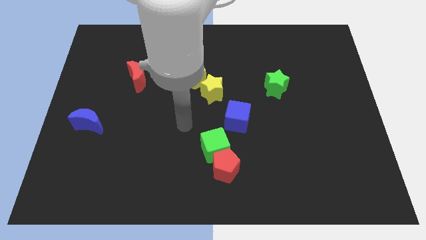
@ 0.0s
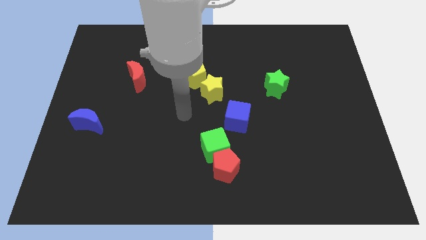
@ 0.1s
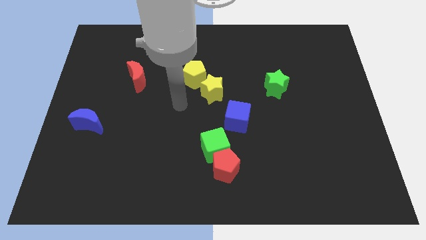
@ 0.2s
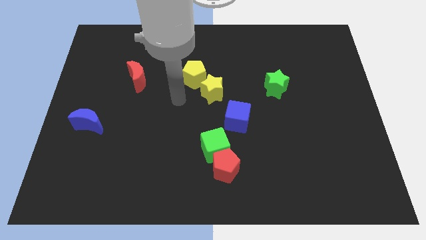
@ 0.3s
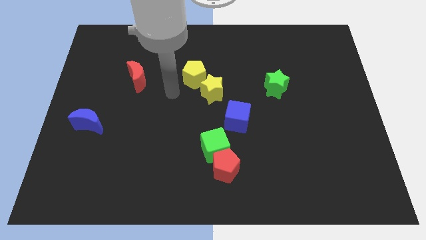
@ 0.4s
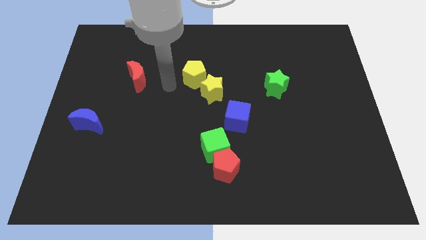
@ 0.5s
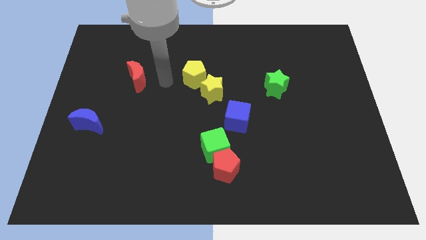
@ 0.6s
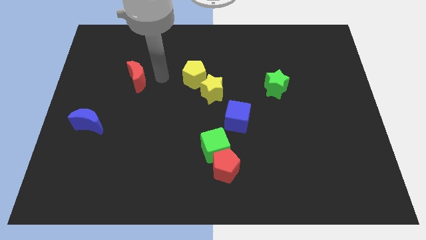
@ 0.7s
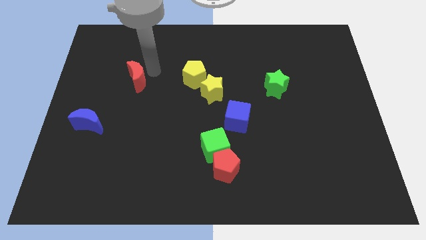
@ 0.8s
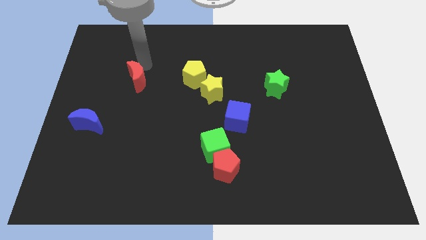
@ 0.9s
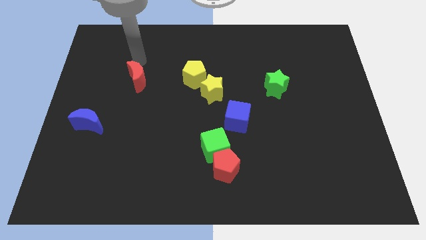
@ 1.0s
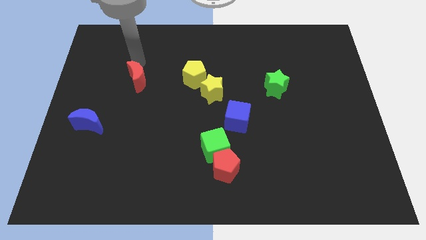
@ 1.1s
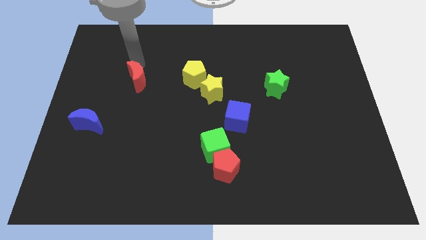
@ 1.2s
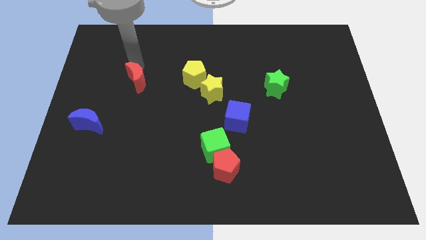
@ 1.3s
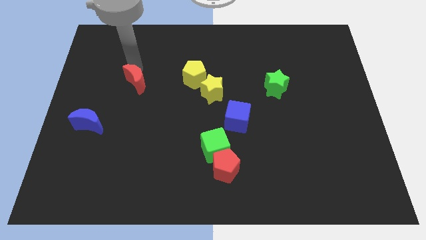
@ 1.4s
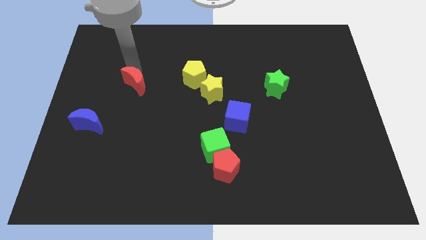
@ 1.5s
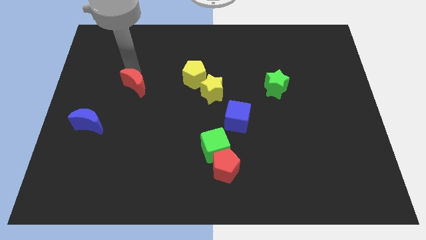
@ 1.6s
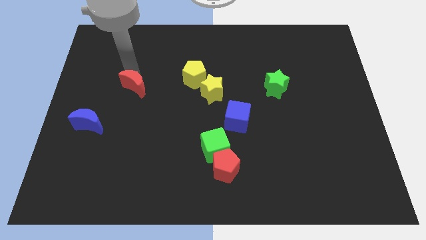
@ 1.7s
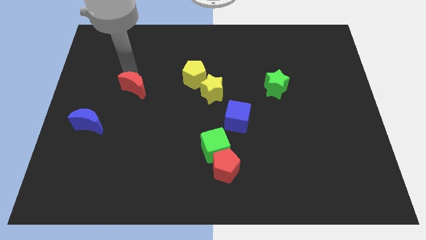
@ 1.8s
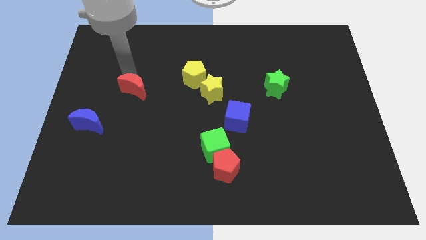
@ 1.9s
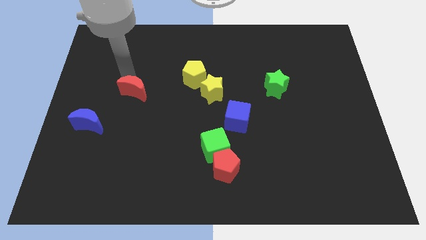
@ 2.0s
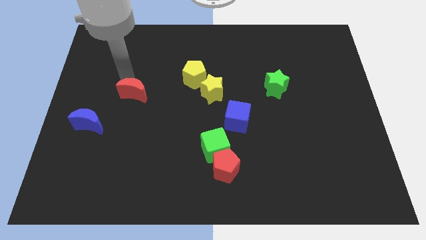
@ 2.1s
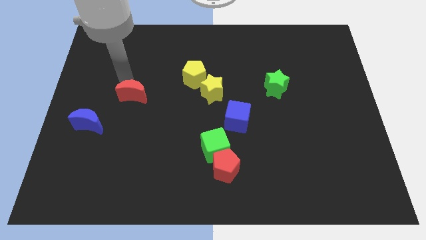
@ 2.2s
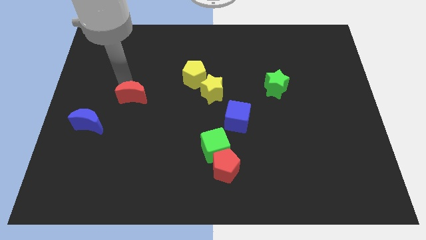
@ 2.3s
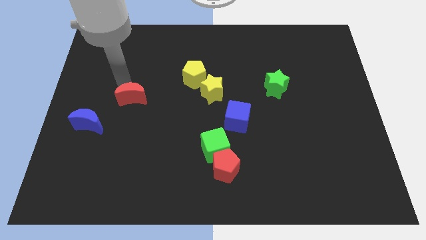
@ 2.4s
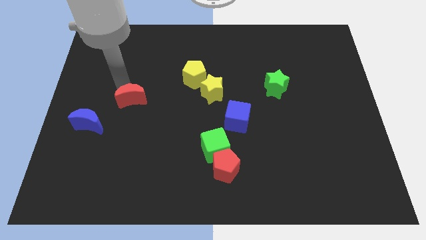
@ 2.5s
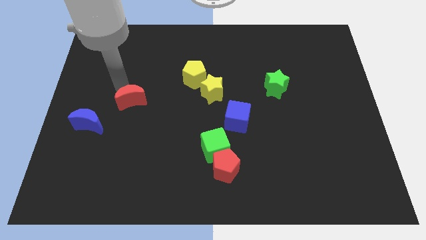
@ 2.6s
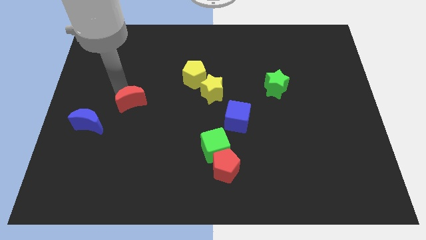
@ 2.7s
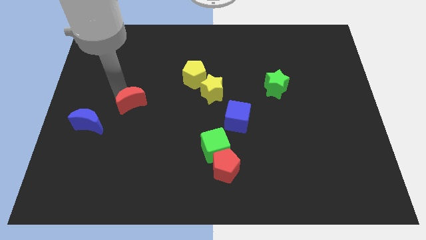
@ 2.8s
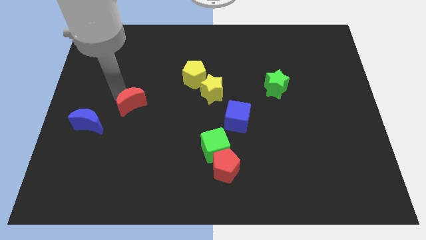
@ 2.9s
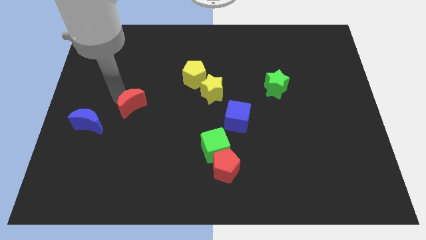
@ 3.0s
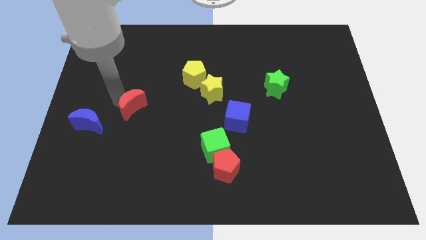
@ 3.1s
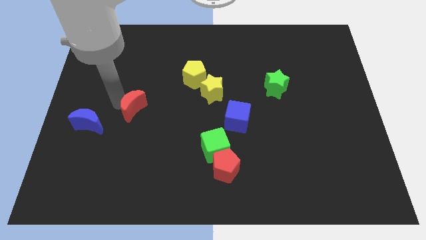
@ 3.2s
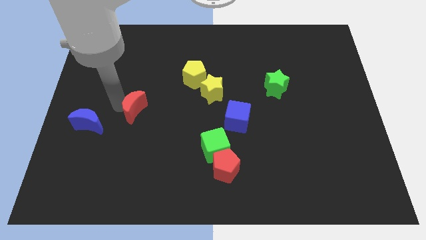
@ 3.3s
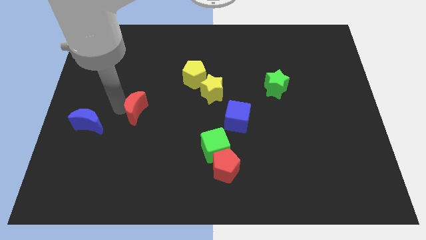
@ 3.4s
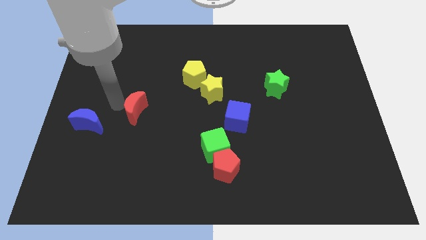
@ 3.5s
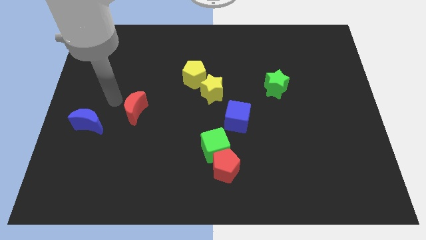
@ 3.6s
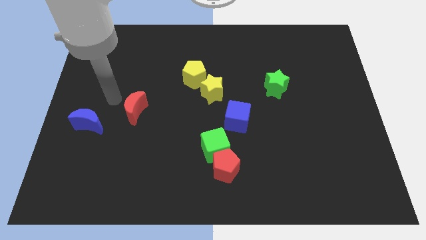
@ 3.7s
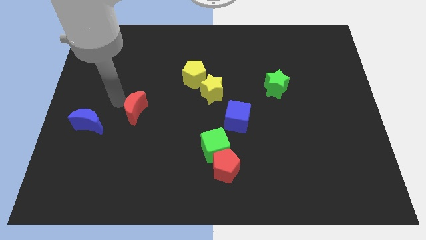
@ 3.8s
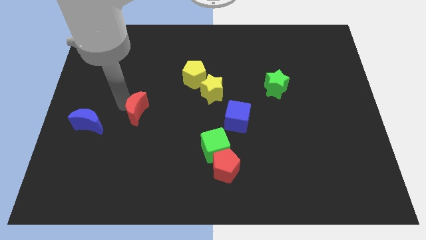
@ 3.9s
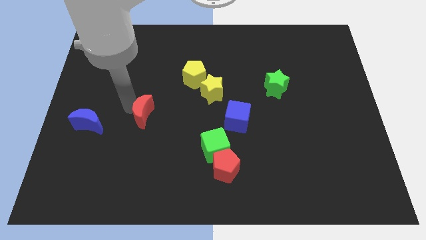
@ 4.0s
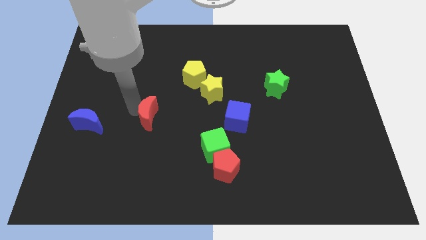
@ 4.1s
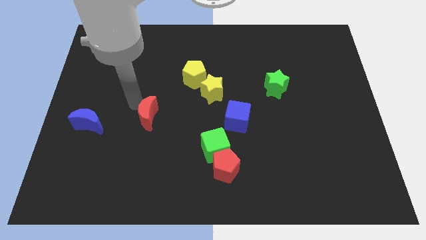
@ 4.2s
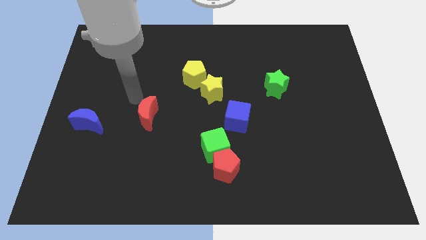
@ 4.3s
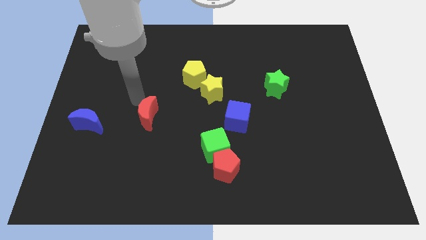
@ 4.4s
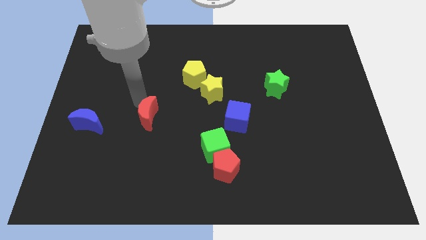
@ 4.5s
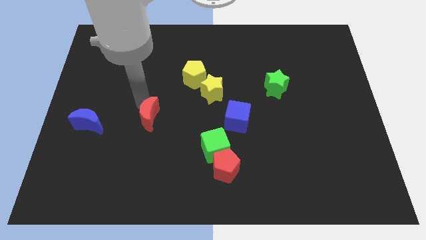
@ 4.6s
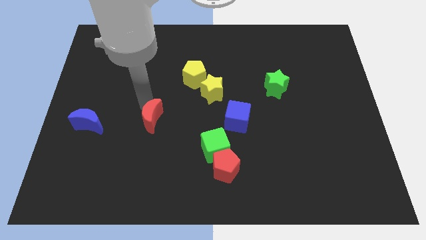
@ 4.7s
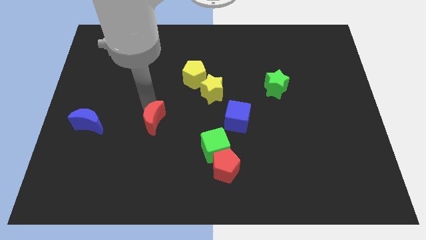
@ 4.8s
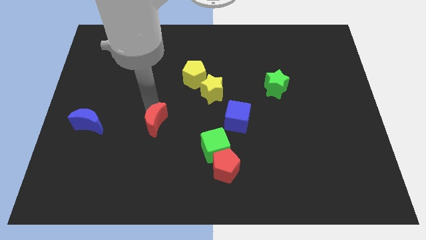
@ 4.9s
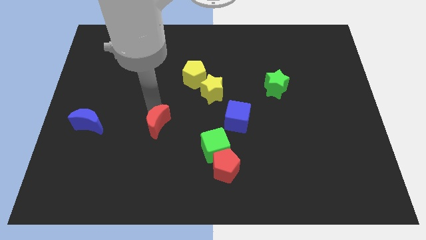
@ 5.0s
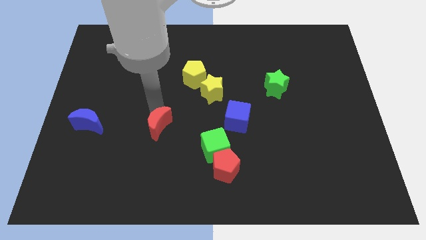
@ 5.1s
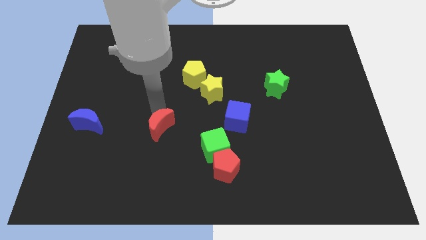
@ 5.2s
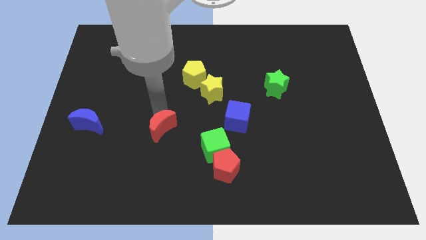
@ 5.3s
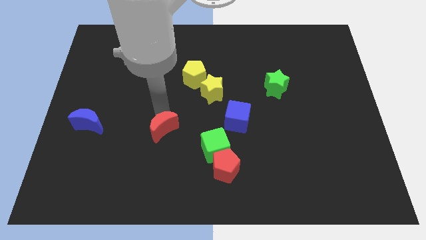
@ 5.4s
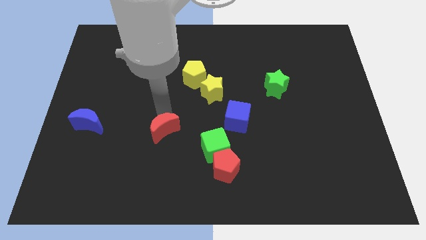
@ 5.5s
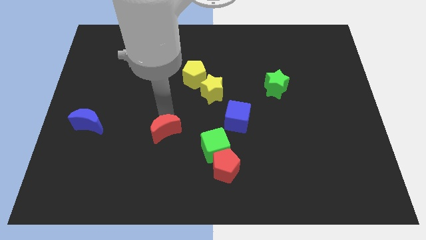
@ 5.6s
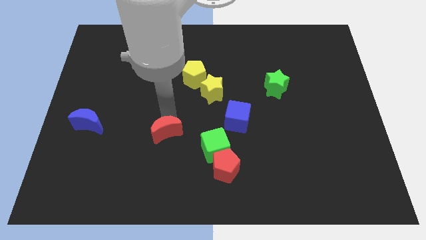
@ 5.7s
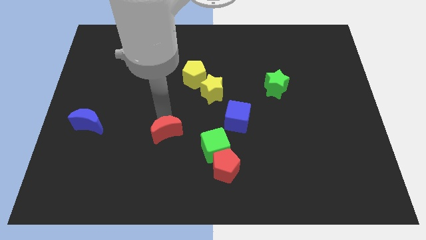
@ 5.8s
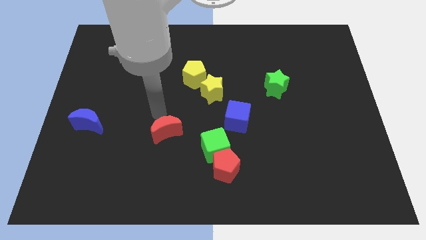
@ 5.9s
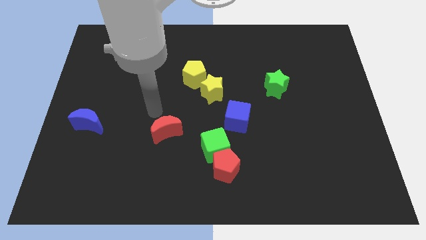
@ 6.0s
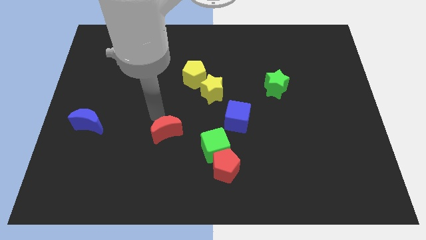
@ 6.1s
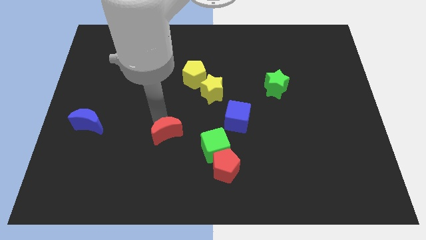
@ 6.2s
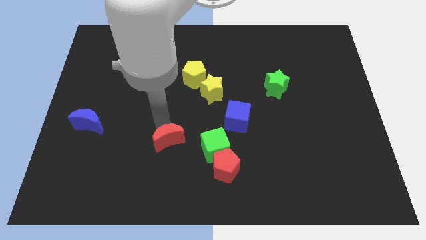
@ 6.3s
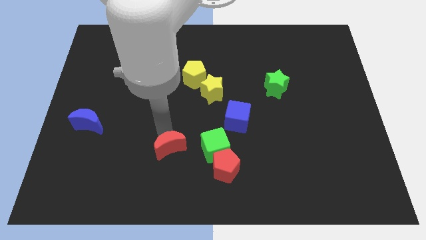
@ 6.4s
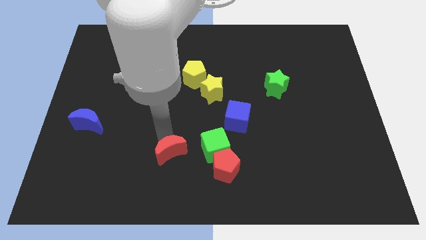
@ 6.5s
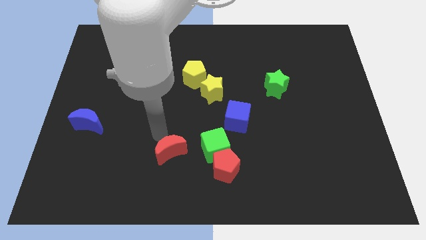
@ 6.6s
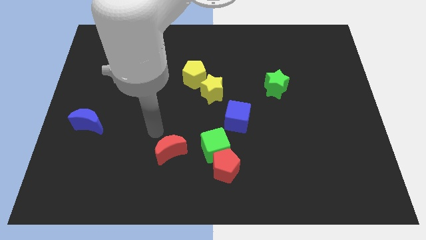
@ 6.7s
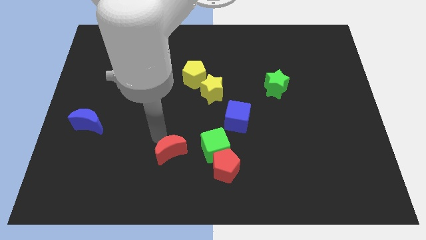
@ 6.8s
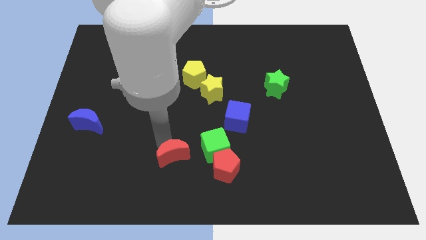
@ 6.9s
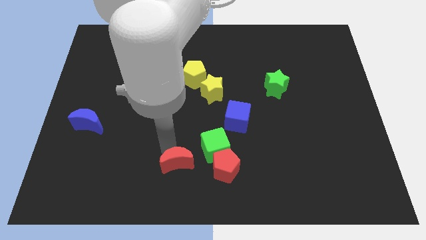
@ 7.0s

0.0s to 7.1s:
put the red moon to the bottom

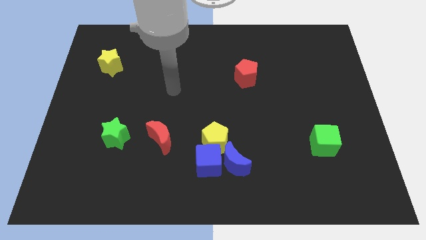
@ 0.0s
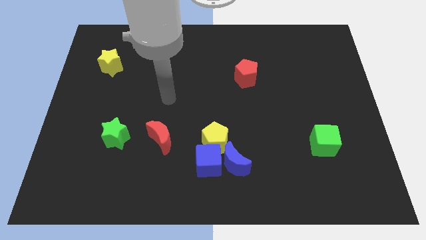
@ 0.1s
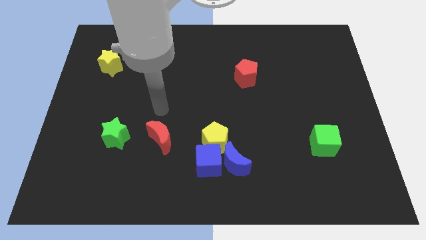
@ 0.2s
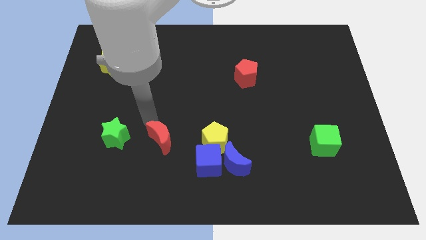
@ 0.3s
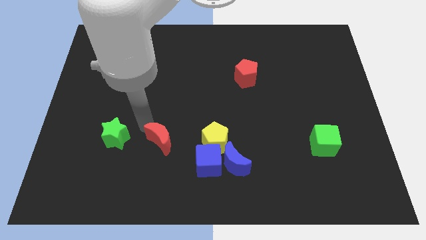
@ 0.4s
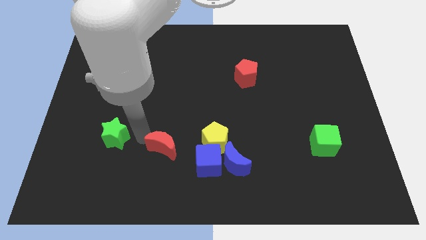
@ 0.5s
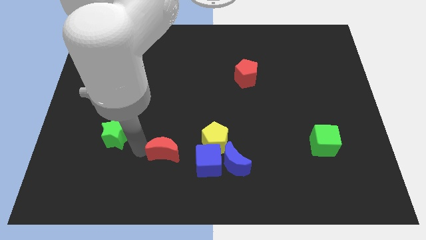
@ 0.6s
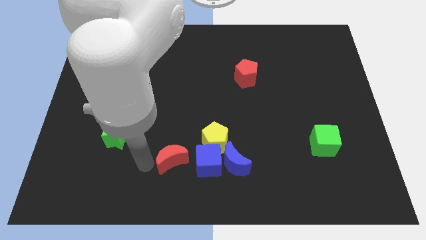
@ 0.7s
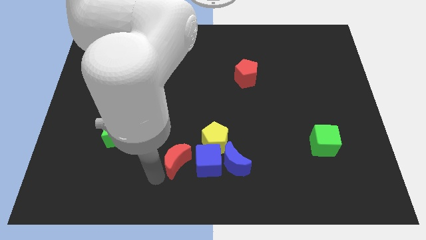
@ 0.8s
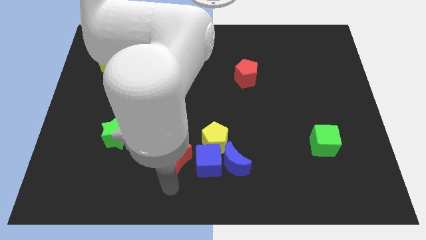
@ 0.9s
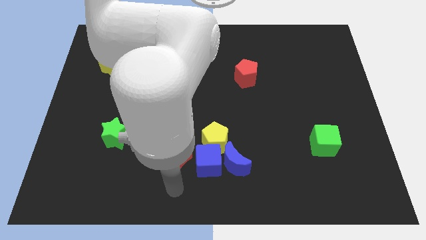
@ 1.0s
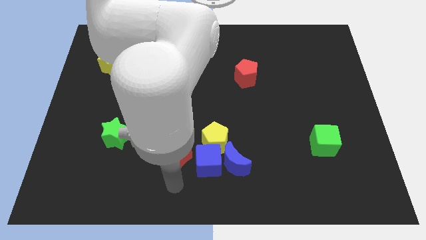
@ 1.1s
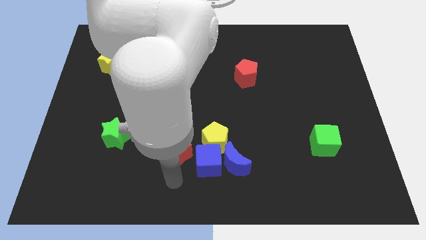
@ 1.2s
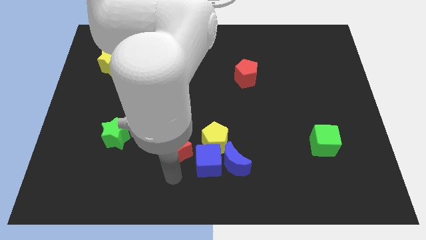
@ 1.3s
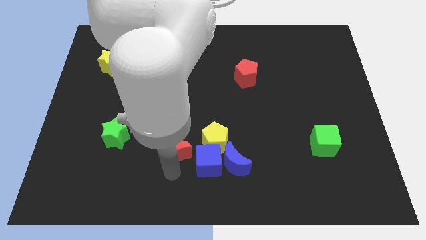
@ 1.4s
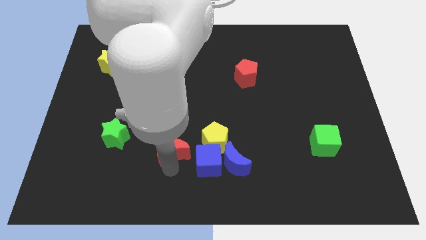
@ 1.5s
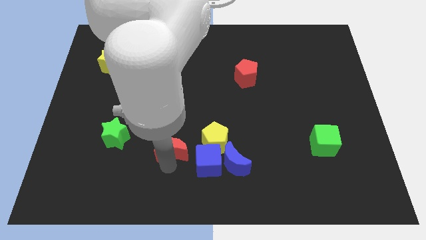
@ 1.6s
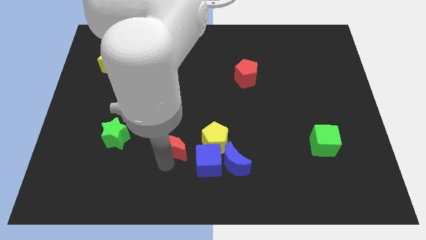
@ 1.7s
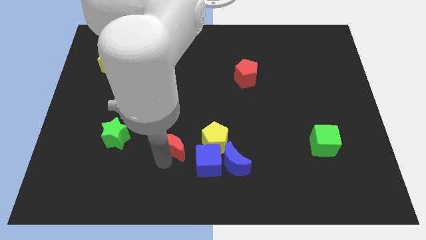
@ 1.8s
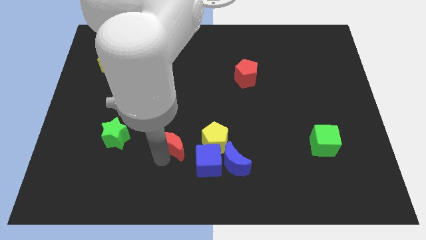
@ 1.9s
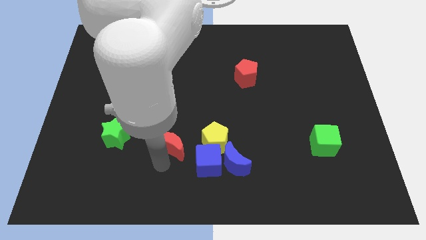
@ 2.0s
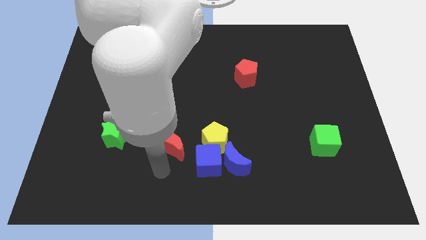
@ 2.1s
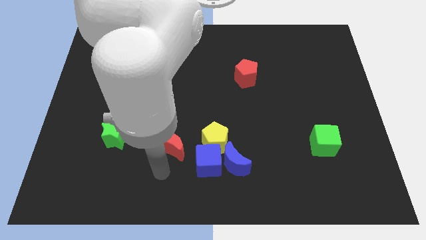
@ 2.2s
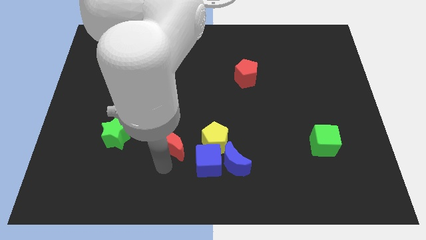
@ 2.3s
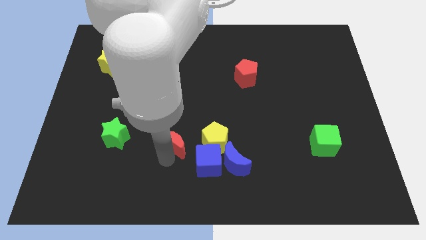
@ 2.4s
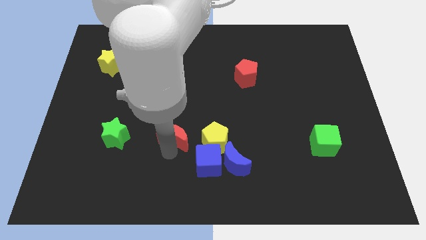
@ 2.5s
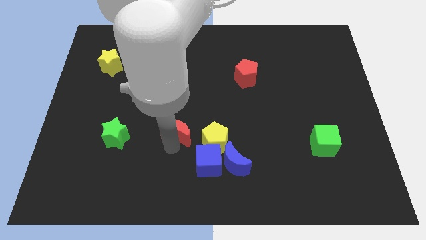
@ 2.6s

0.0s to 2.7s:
put the red moon to the center
